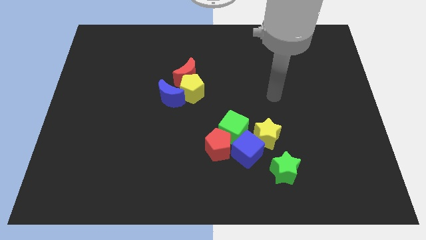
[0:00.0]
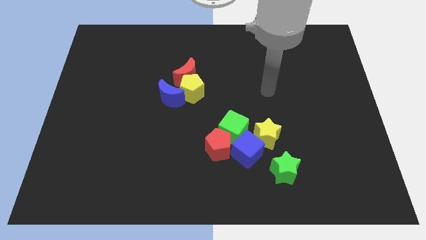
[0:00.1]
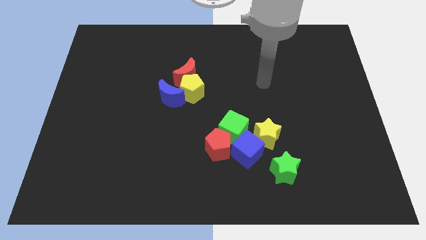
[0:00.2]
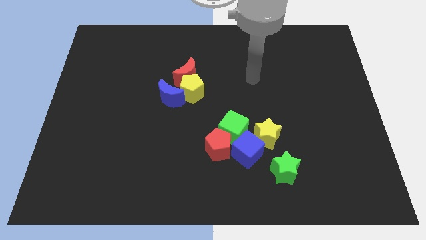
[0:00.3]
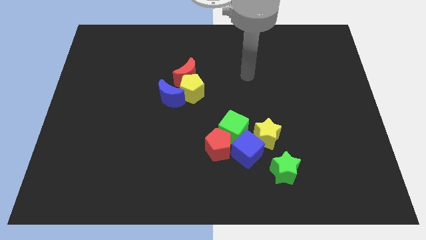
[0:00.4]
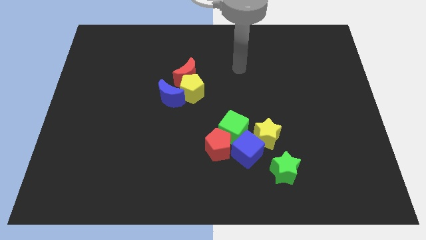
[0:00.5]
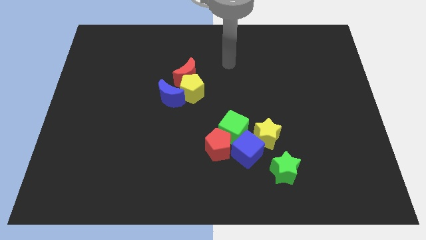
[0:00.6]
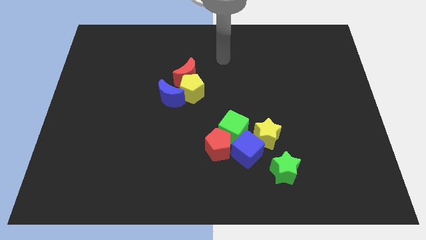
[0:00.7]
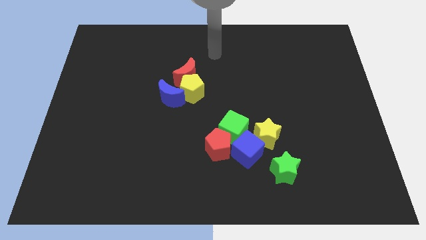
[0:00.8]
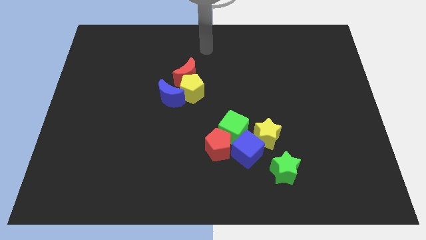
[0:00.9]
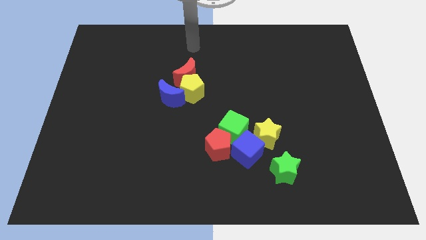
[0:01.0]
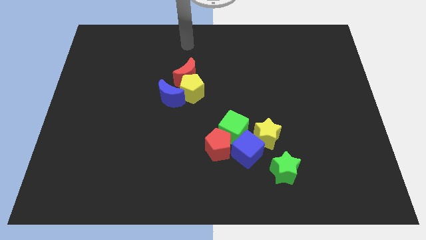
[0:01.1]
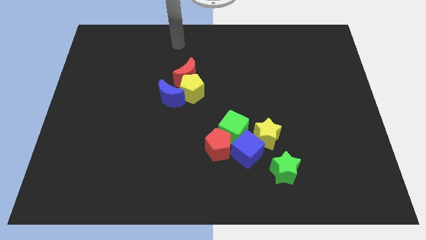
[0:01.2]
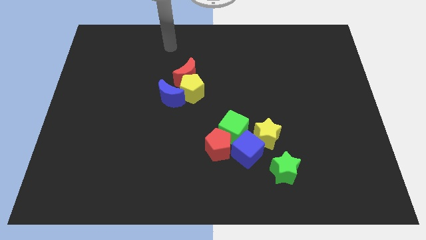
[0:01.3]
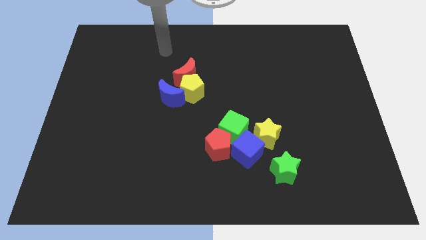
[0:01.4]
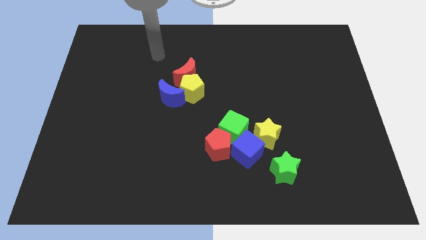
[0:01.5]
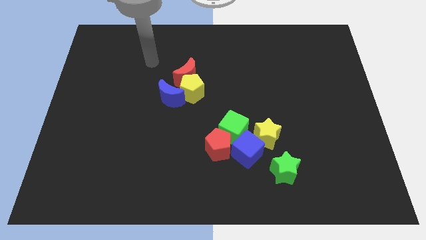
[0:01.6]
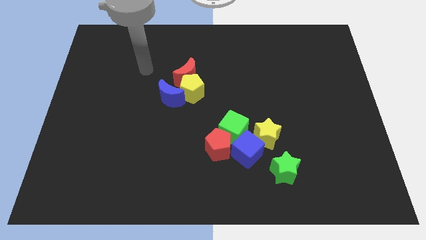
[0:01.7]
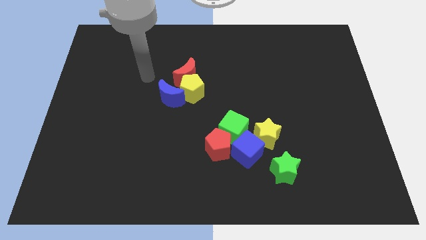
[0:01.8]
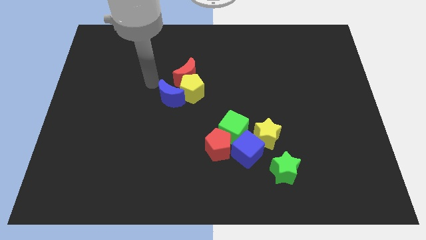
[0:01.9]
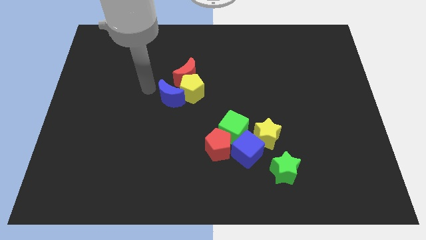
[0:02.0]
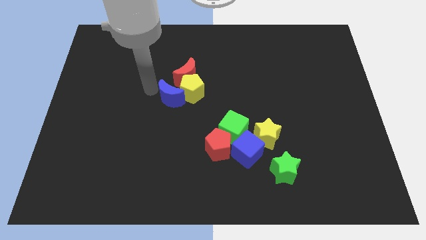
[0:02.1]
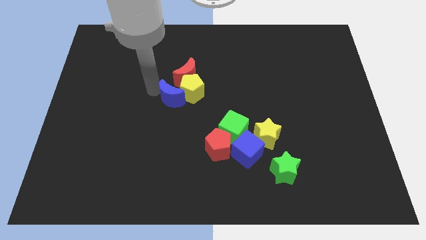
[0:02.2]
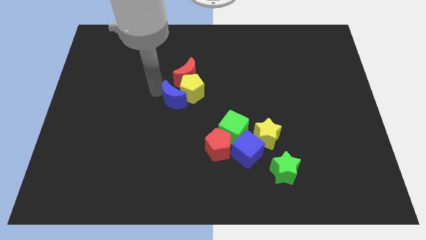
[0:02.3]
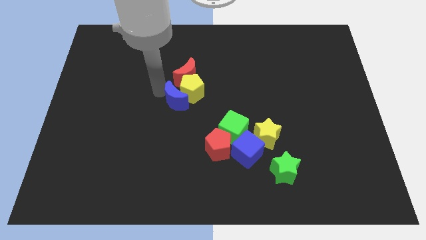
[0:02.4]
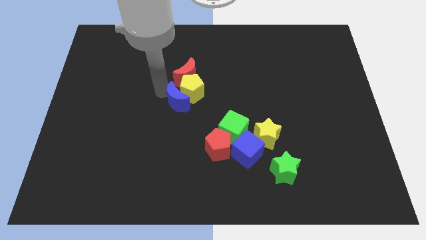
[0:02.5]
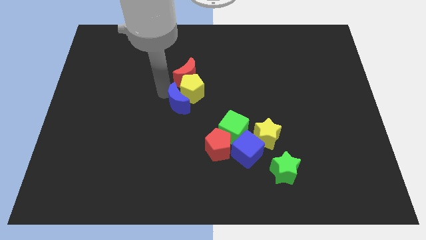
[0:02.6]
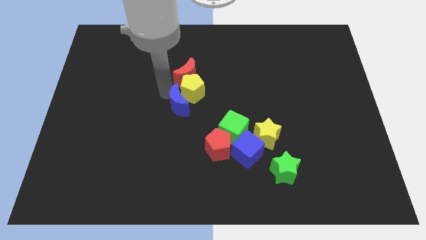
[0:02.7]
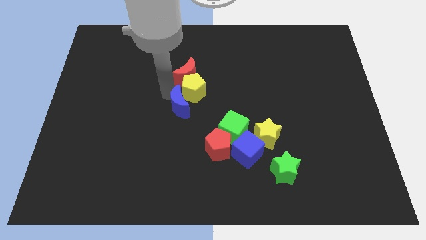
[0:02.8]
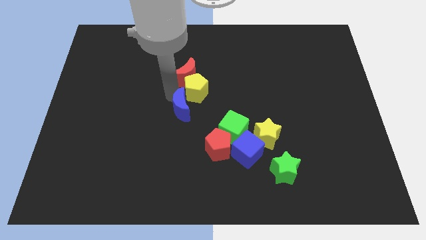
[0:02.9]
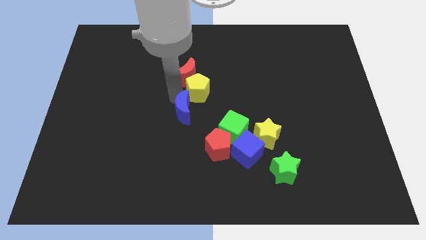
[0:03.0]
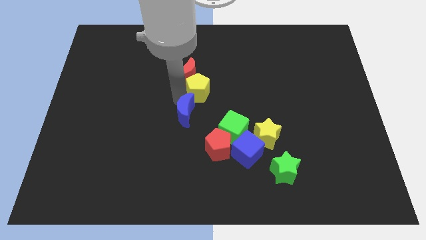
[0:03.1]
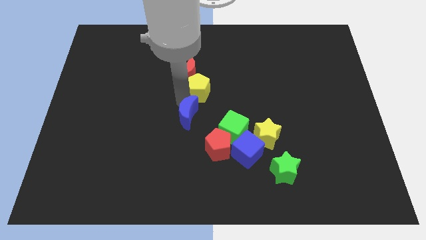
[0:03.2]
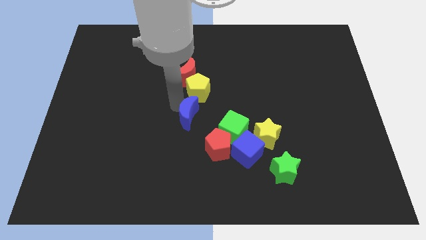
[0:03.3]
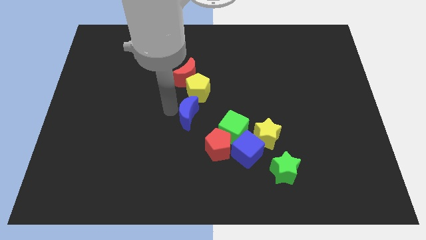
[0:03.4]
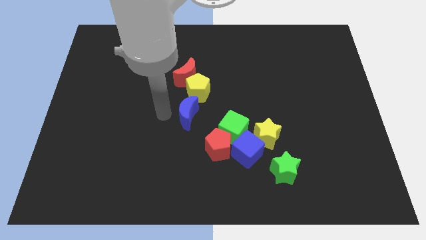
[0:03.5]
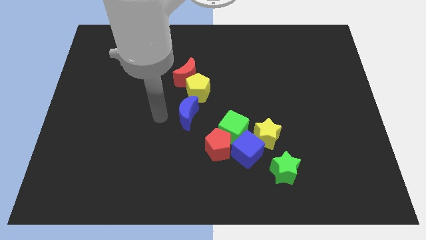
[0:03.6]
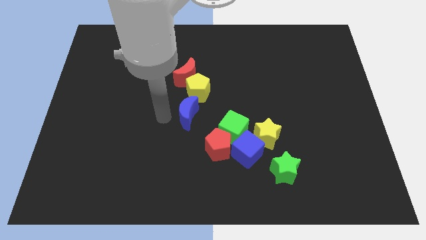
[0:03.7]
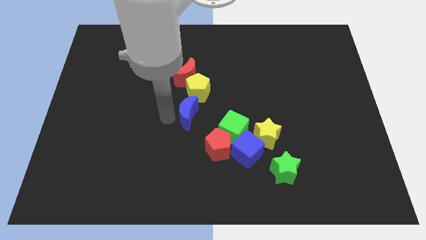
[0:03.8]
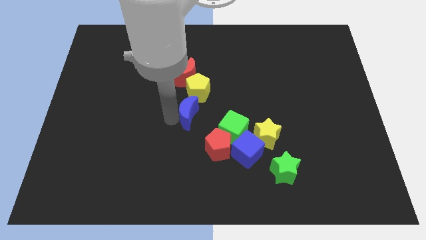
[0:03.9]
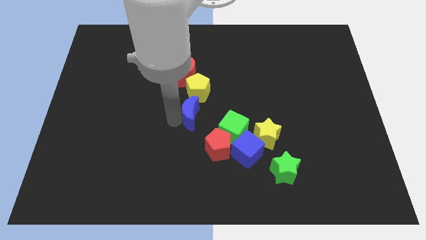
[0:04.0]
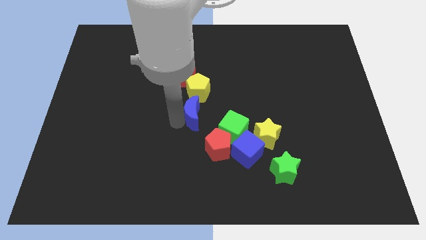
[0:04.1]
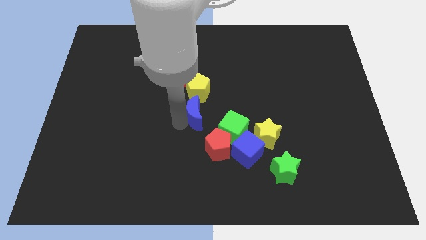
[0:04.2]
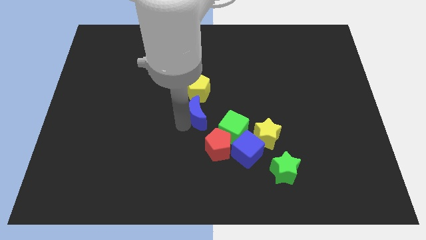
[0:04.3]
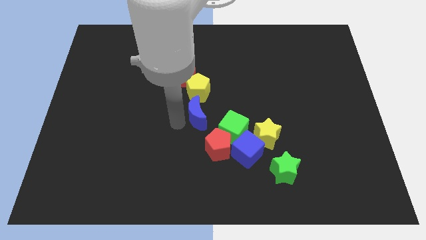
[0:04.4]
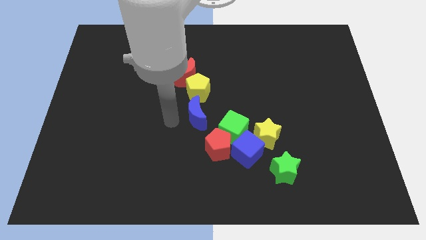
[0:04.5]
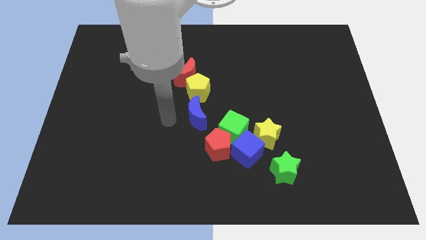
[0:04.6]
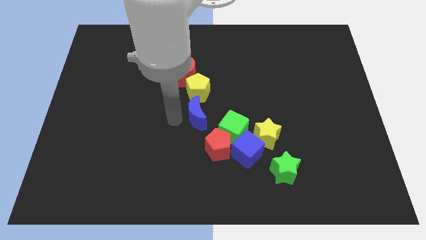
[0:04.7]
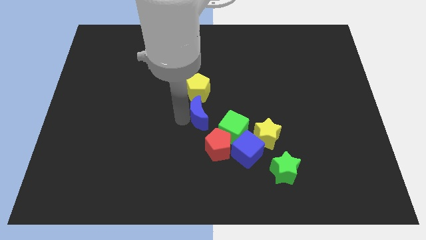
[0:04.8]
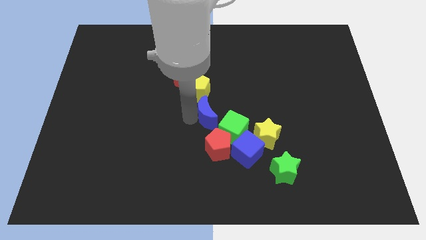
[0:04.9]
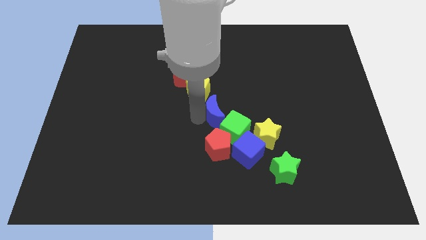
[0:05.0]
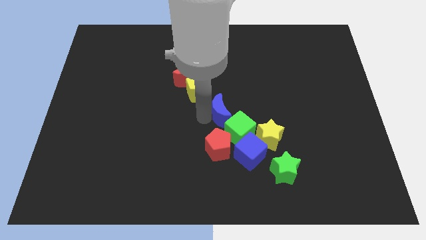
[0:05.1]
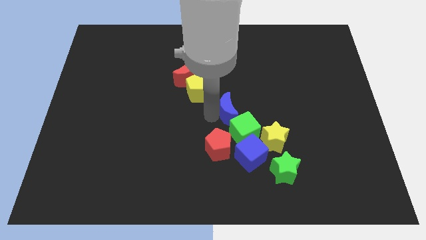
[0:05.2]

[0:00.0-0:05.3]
move the blue moon to the top side of the blue cube

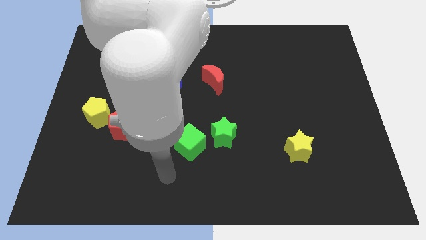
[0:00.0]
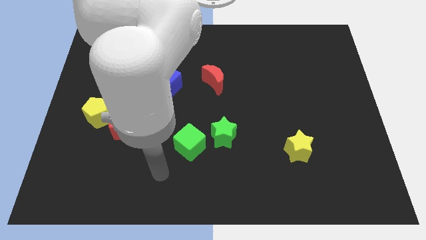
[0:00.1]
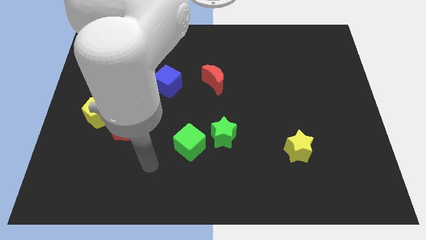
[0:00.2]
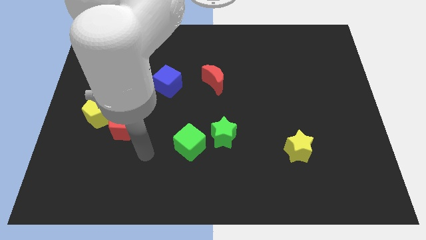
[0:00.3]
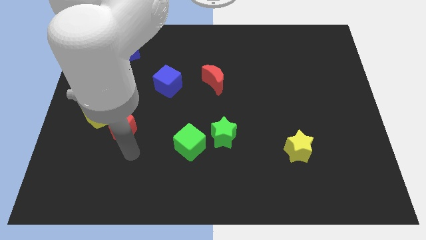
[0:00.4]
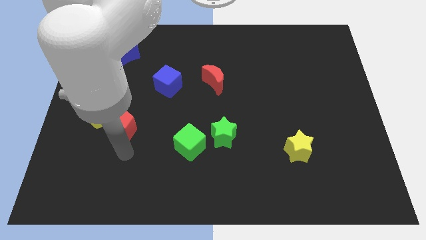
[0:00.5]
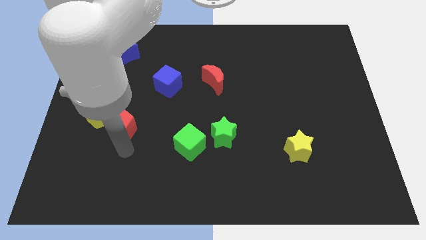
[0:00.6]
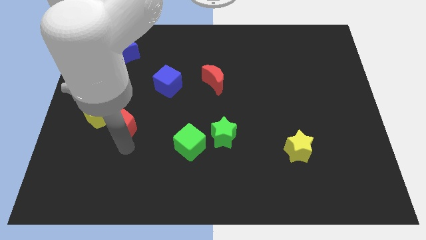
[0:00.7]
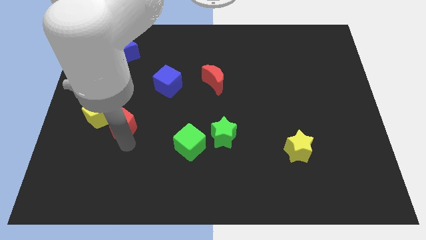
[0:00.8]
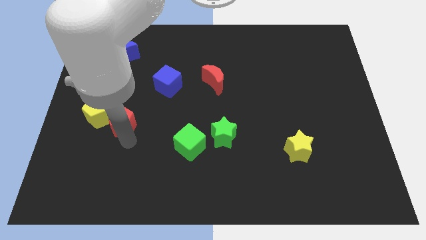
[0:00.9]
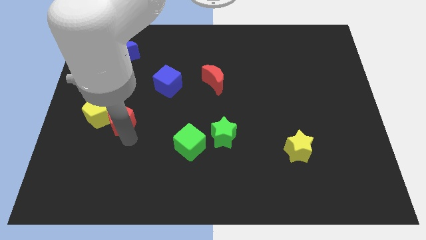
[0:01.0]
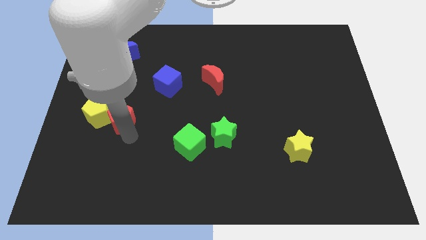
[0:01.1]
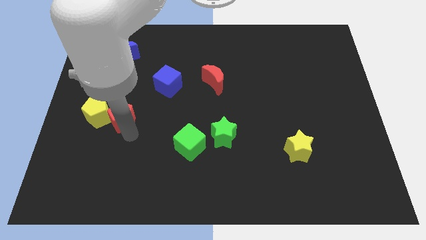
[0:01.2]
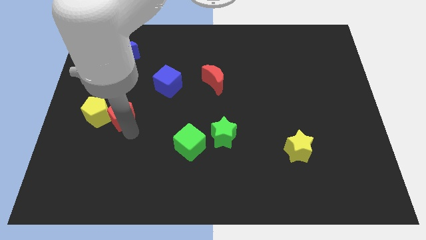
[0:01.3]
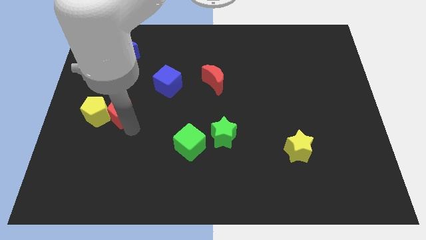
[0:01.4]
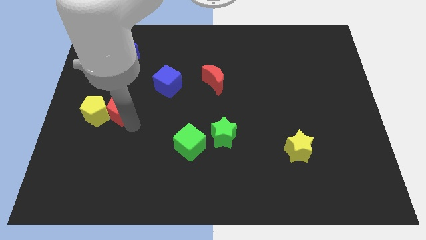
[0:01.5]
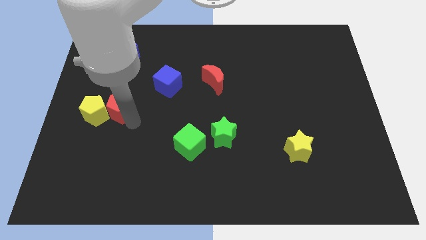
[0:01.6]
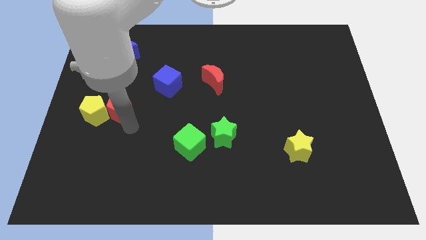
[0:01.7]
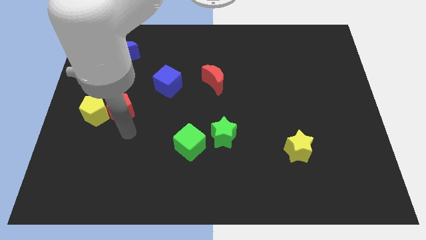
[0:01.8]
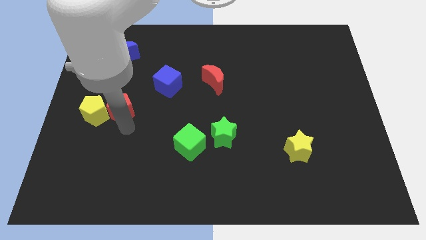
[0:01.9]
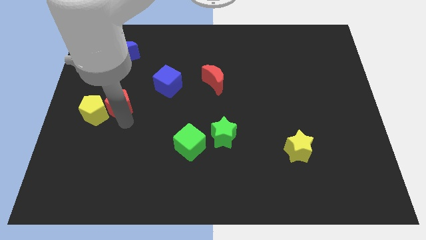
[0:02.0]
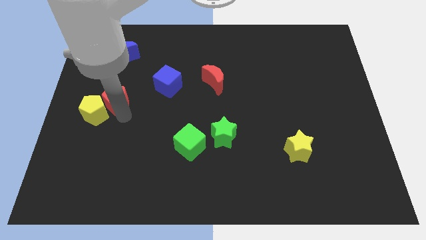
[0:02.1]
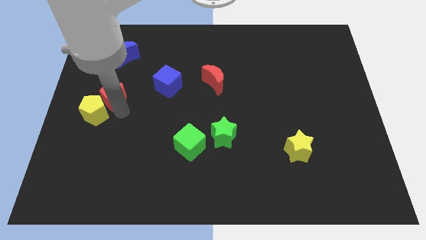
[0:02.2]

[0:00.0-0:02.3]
put the red pentagon above the yellow pentagon
